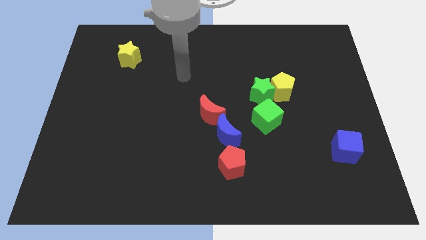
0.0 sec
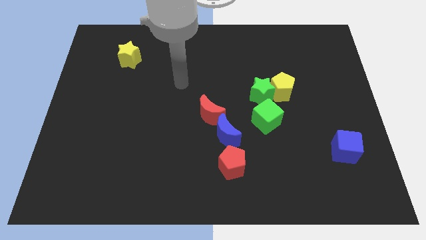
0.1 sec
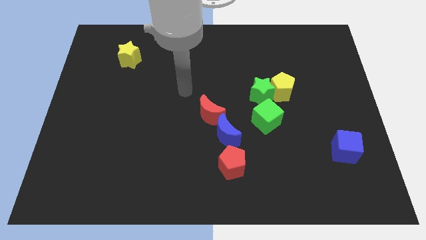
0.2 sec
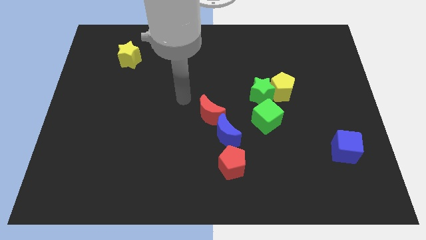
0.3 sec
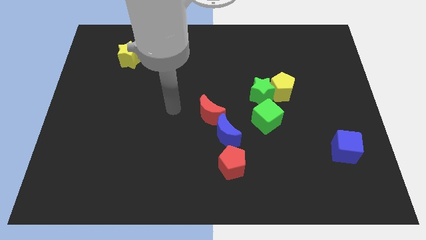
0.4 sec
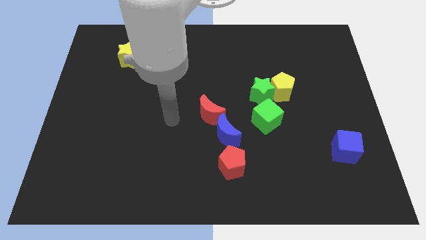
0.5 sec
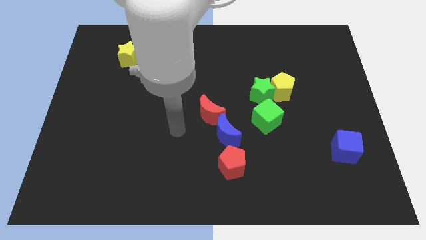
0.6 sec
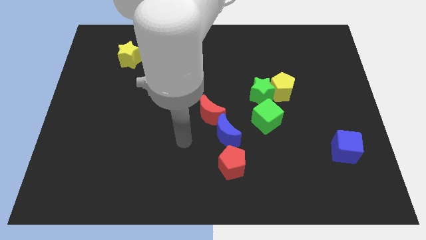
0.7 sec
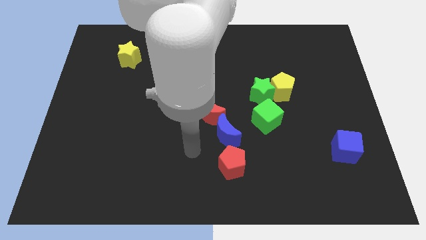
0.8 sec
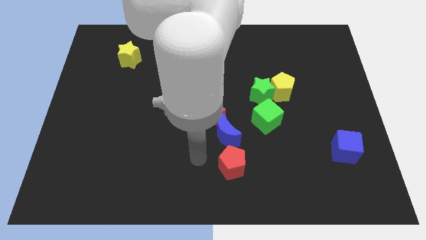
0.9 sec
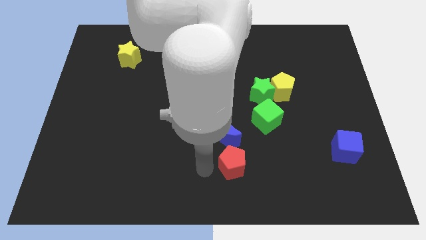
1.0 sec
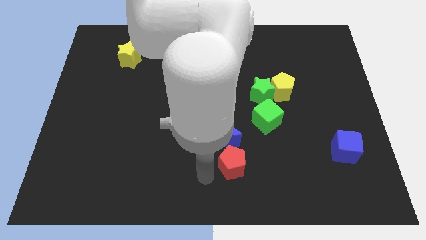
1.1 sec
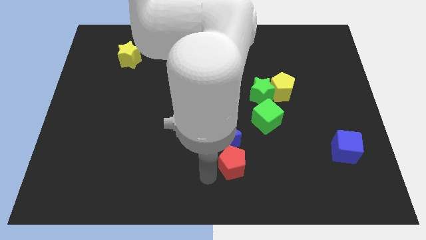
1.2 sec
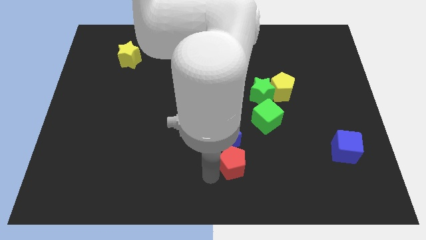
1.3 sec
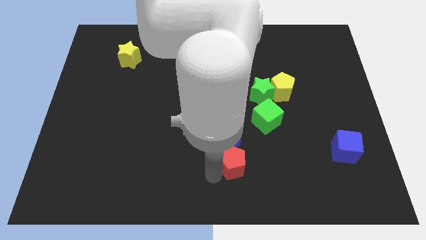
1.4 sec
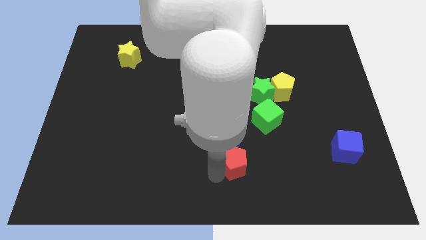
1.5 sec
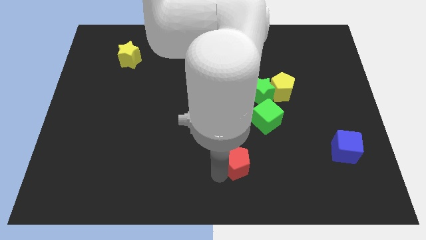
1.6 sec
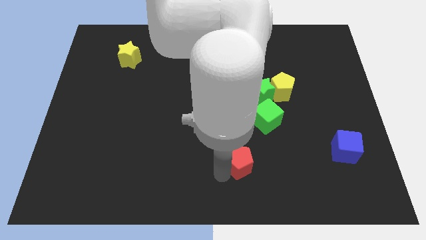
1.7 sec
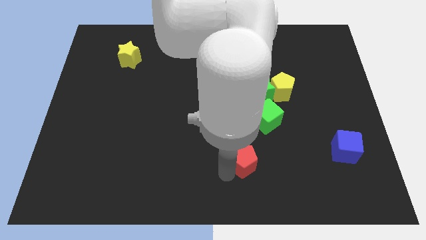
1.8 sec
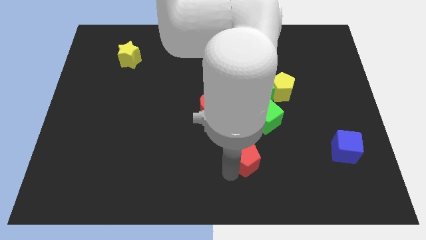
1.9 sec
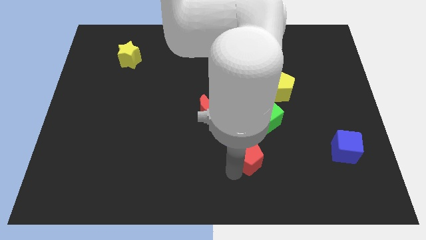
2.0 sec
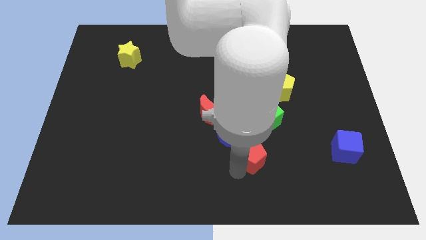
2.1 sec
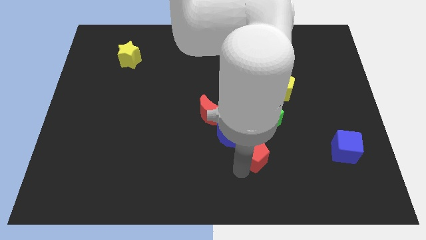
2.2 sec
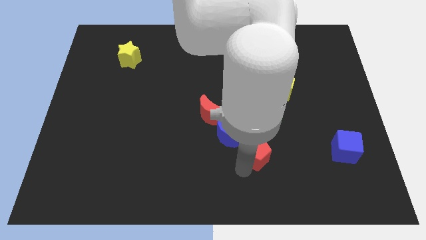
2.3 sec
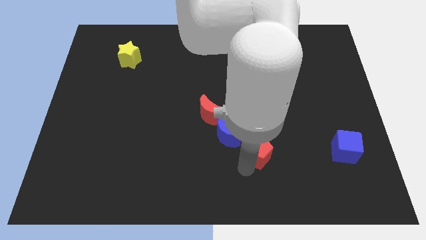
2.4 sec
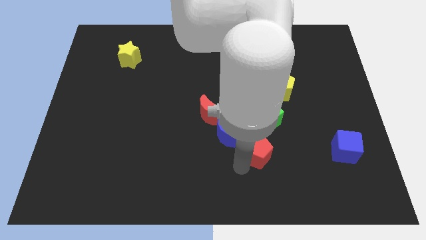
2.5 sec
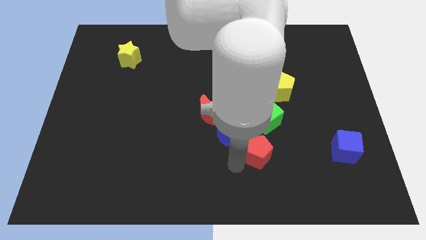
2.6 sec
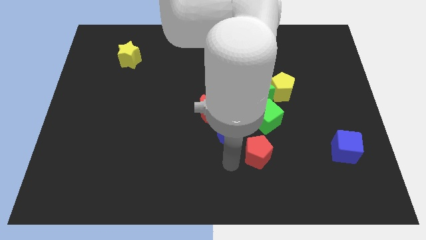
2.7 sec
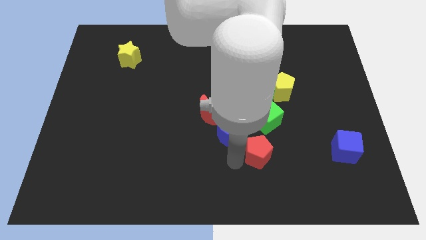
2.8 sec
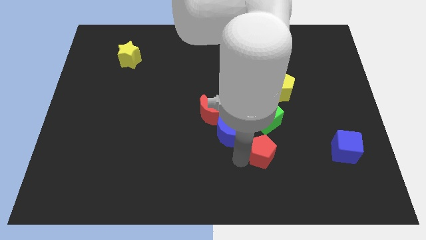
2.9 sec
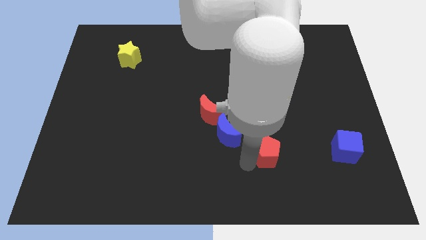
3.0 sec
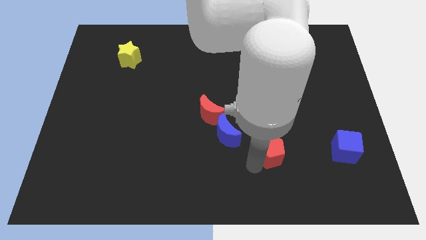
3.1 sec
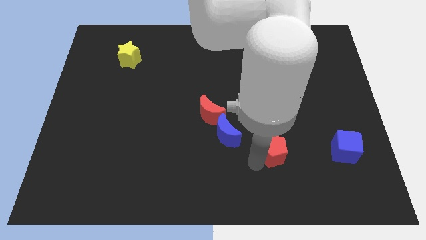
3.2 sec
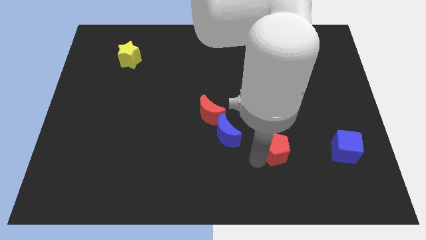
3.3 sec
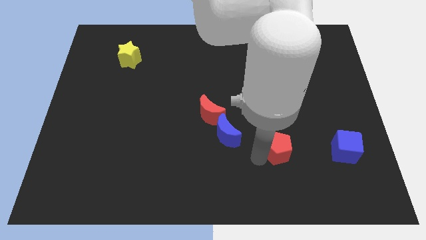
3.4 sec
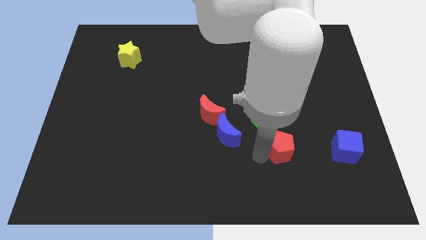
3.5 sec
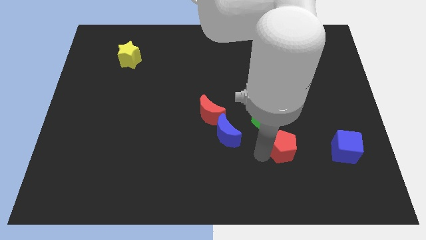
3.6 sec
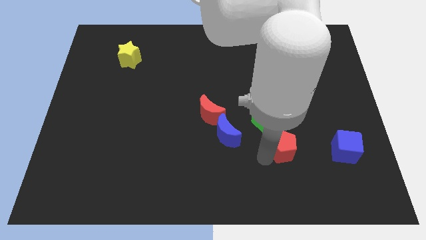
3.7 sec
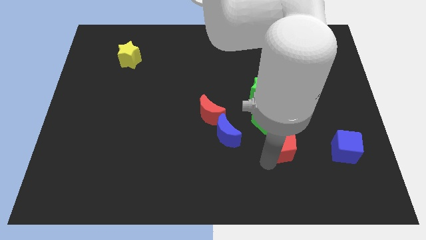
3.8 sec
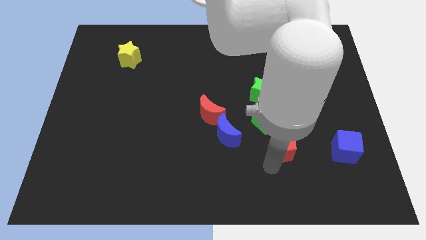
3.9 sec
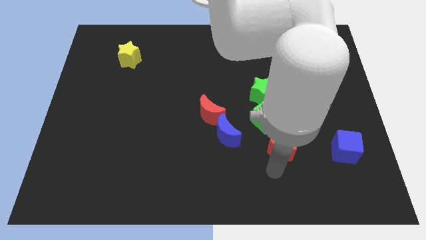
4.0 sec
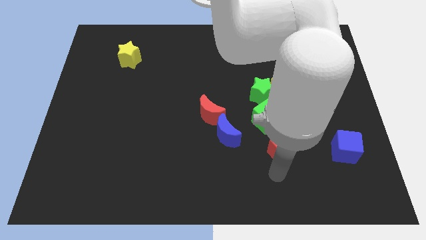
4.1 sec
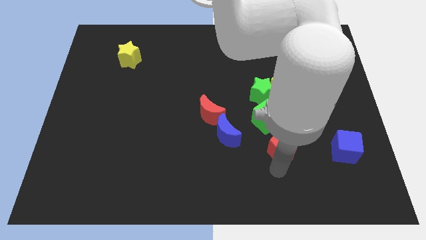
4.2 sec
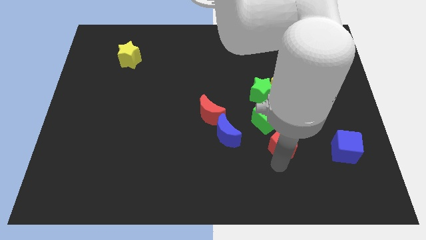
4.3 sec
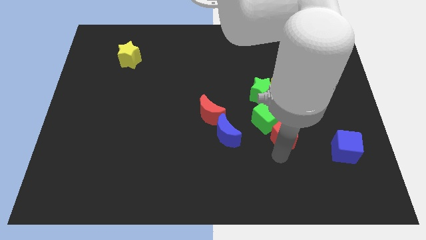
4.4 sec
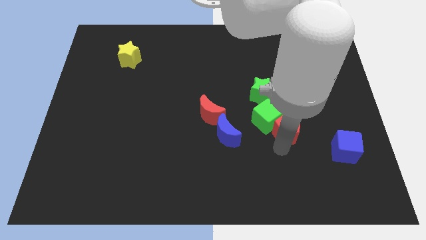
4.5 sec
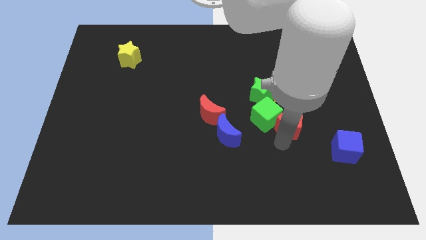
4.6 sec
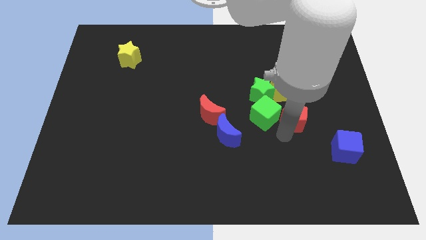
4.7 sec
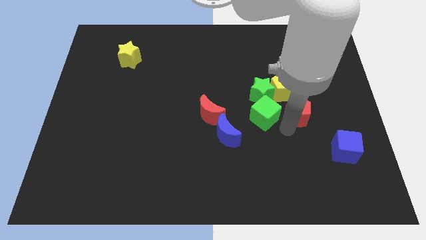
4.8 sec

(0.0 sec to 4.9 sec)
move the red pentagon up and to the right

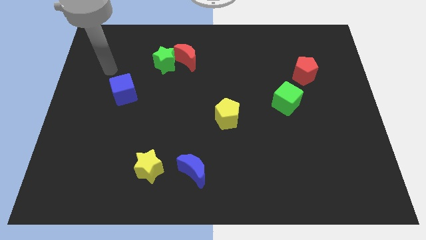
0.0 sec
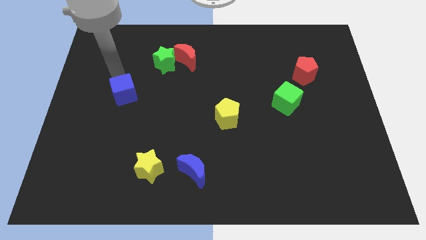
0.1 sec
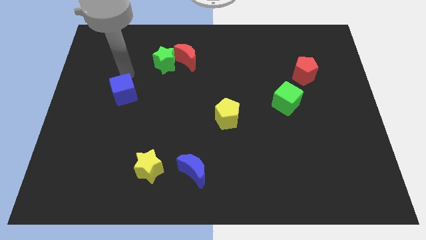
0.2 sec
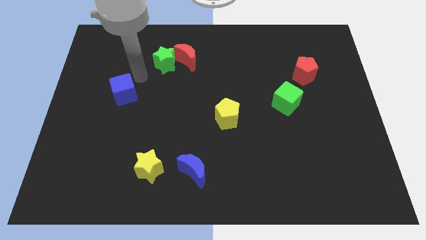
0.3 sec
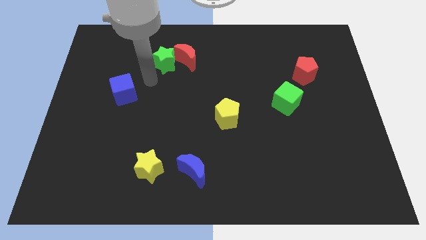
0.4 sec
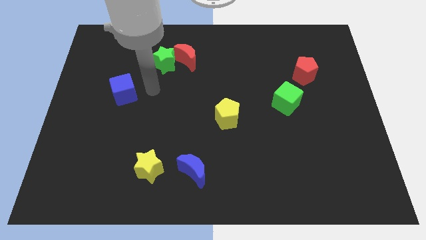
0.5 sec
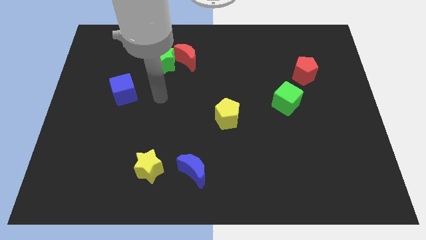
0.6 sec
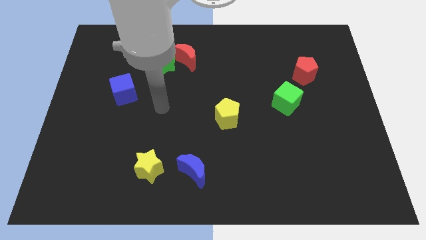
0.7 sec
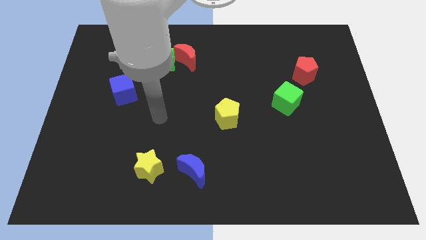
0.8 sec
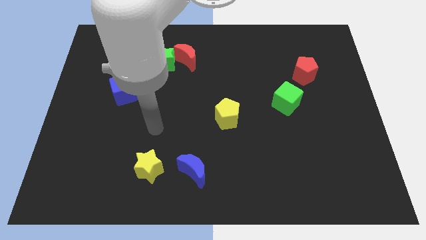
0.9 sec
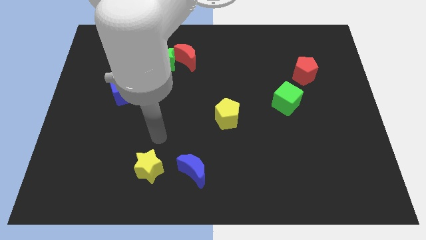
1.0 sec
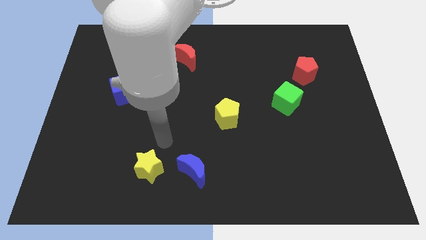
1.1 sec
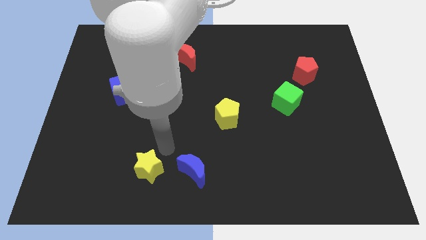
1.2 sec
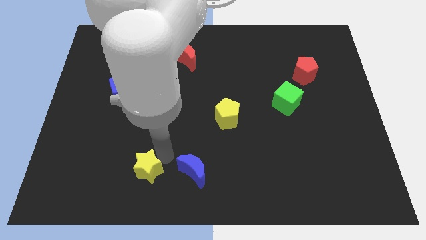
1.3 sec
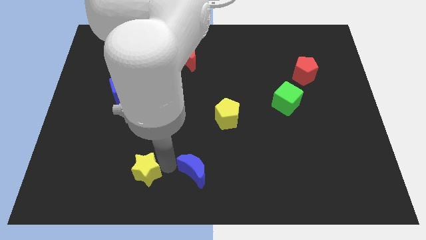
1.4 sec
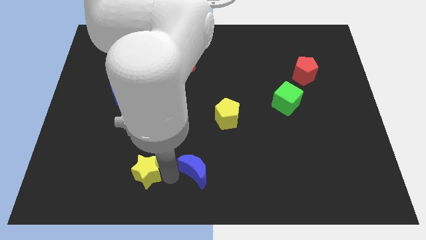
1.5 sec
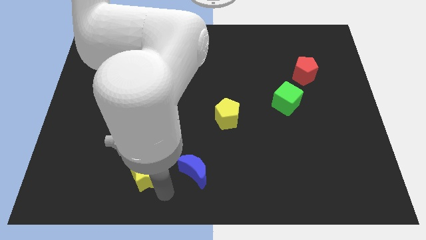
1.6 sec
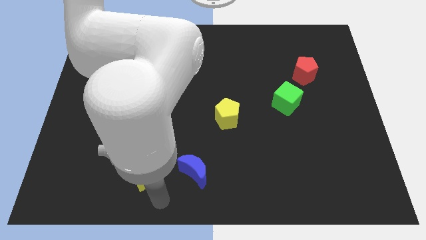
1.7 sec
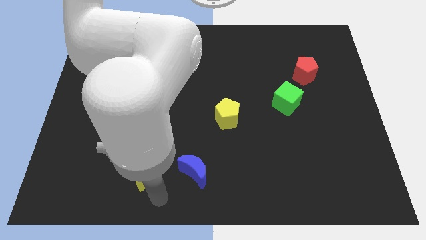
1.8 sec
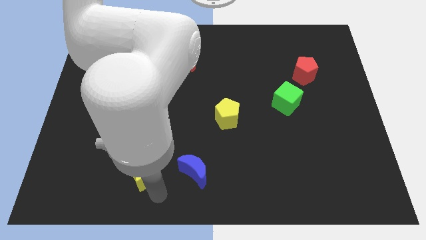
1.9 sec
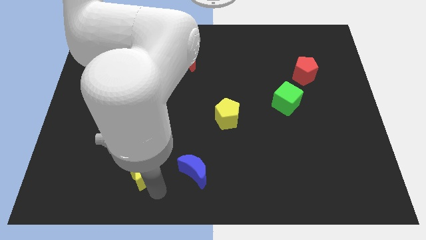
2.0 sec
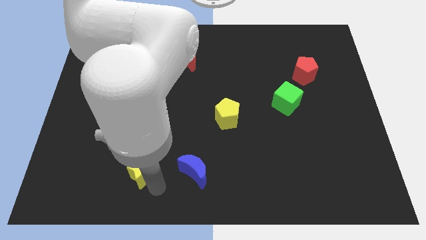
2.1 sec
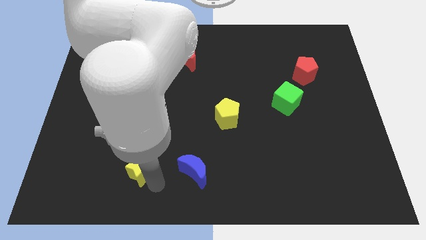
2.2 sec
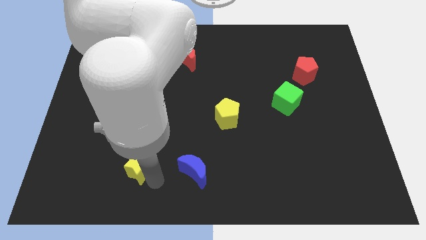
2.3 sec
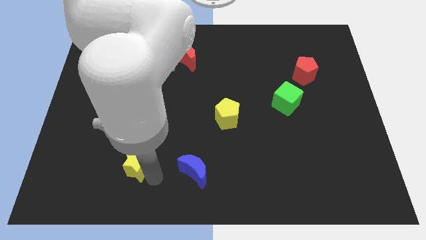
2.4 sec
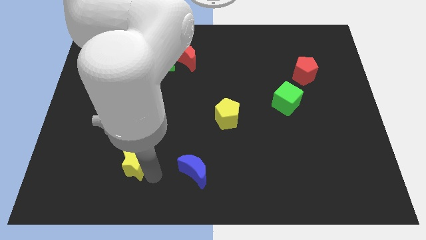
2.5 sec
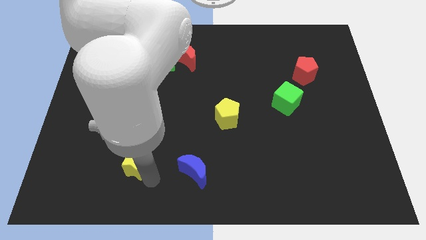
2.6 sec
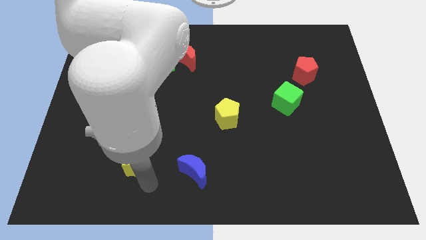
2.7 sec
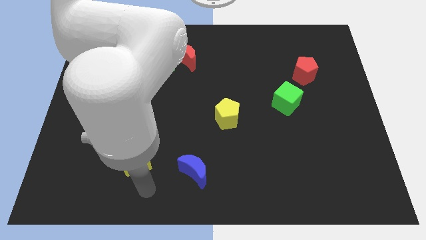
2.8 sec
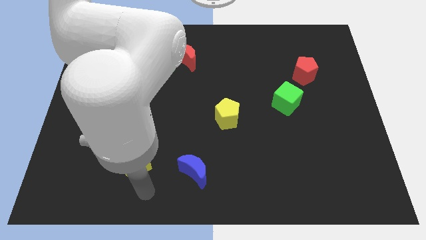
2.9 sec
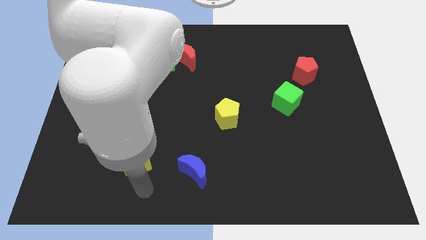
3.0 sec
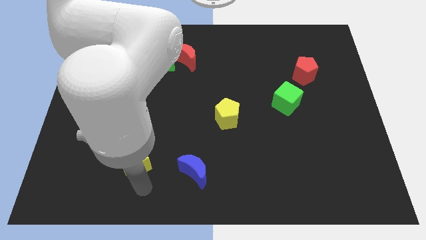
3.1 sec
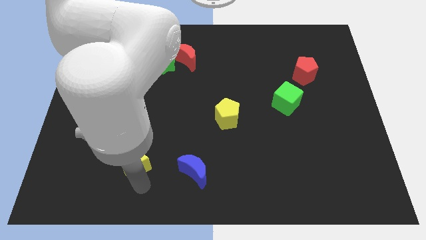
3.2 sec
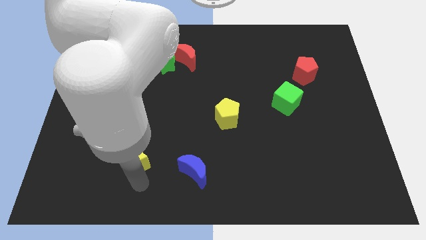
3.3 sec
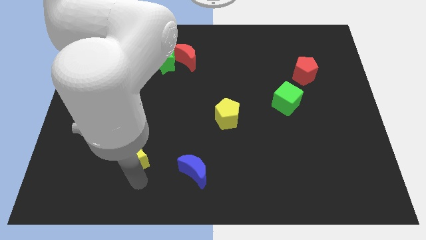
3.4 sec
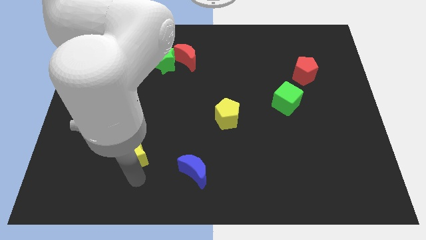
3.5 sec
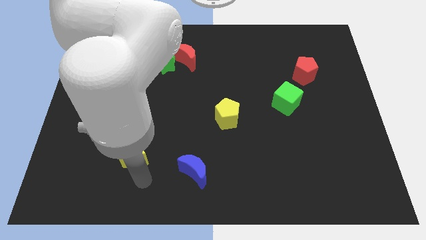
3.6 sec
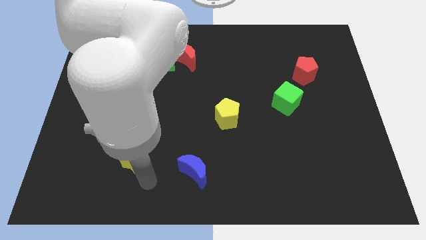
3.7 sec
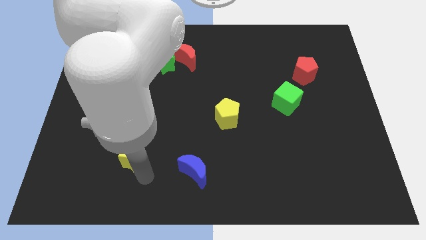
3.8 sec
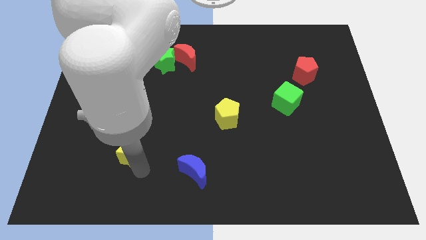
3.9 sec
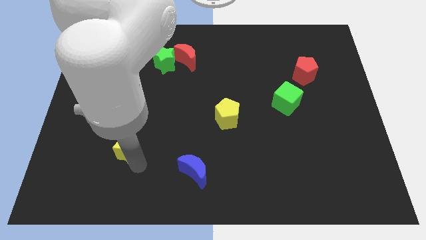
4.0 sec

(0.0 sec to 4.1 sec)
slide the yellow star a little bit up and to the left
